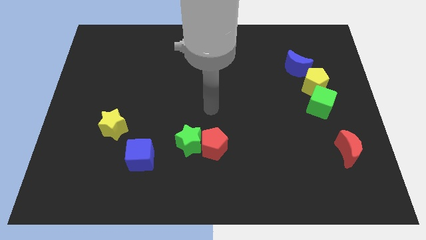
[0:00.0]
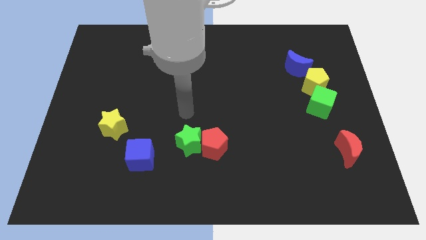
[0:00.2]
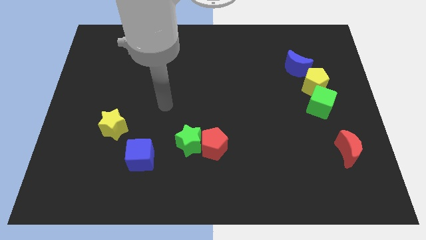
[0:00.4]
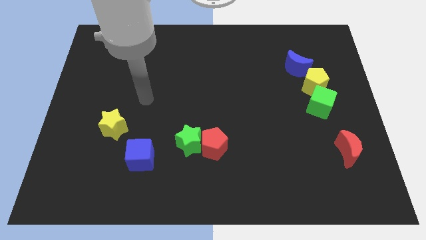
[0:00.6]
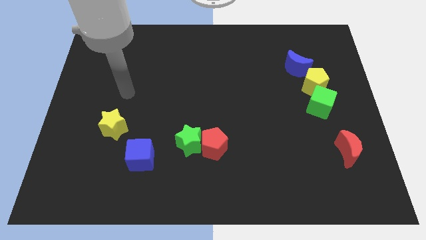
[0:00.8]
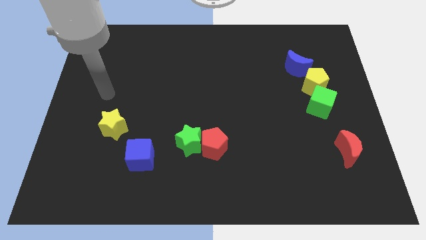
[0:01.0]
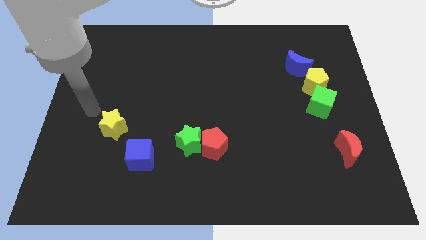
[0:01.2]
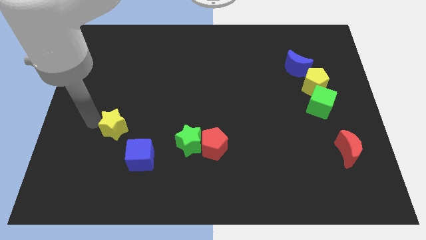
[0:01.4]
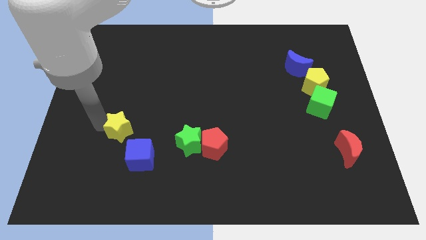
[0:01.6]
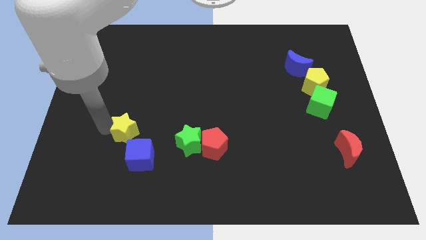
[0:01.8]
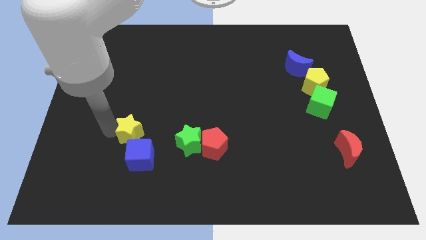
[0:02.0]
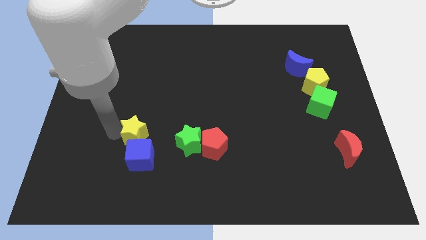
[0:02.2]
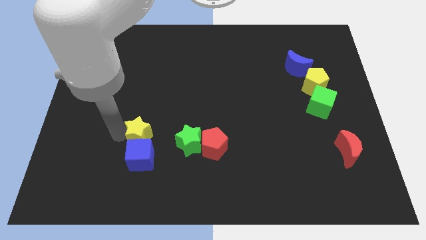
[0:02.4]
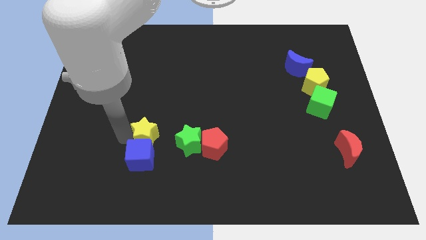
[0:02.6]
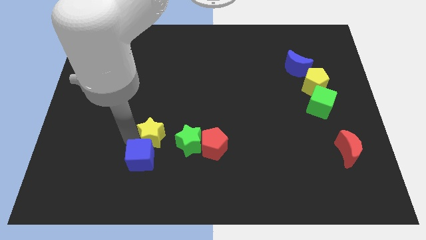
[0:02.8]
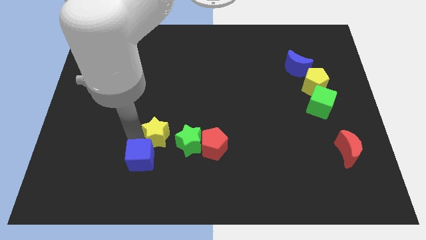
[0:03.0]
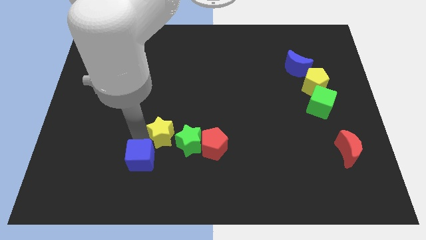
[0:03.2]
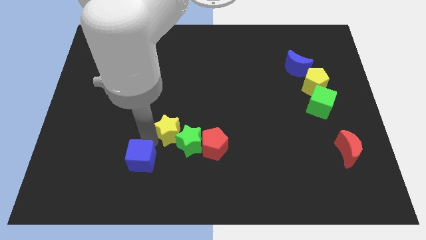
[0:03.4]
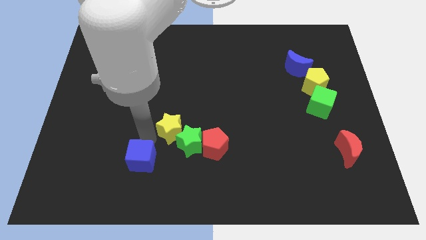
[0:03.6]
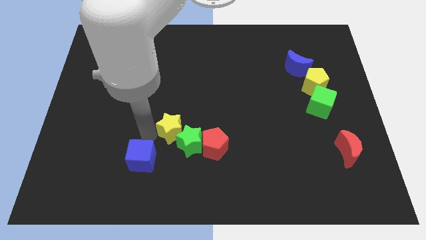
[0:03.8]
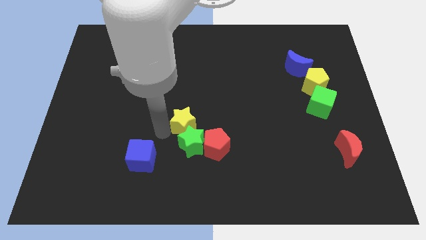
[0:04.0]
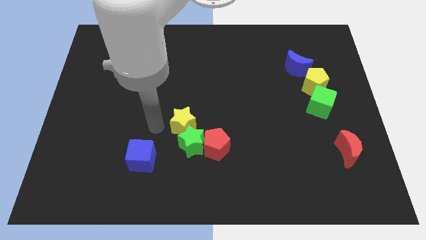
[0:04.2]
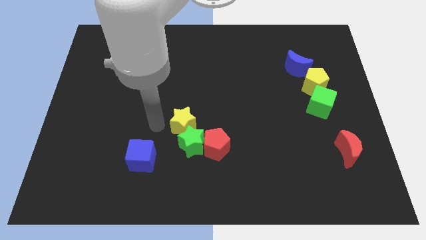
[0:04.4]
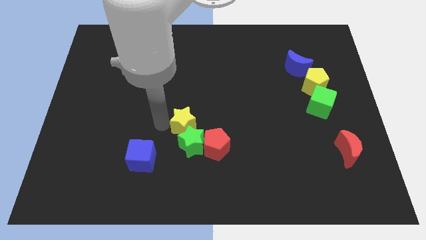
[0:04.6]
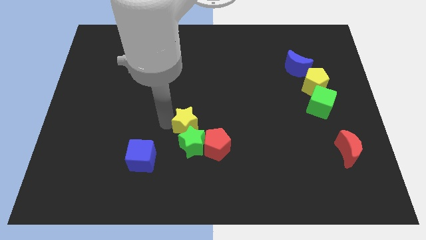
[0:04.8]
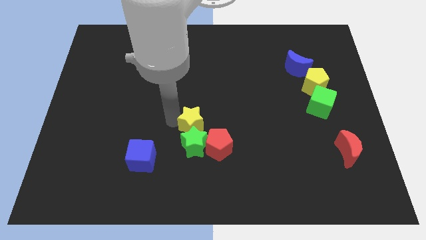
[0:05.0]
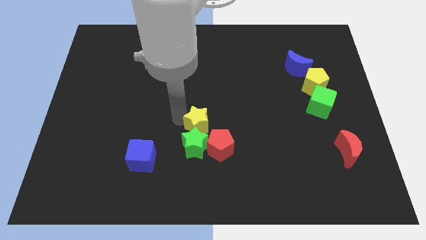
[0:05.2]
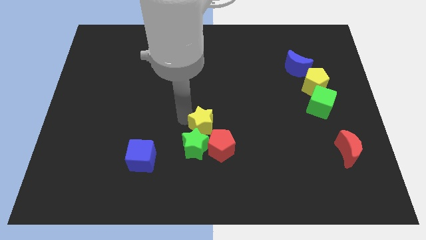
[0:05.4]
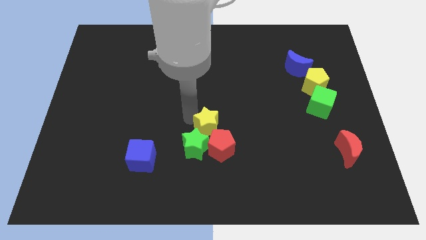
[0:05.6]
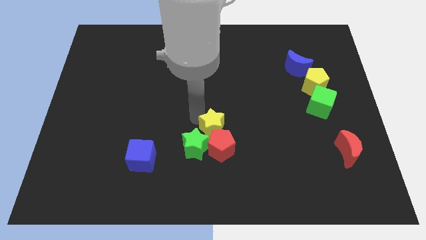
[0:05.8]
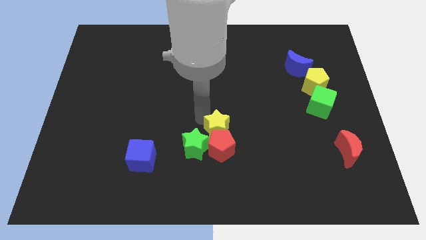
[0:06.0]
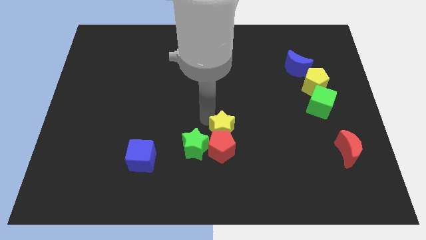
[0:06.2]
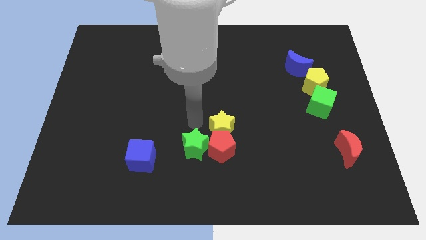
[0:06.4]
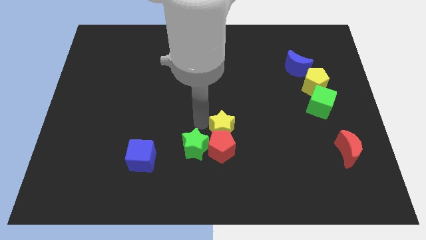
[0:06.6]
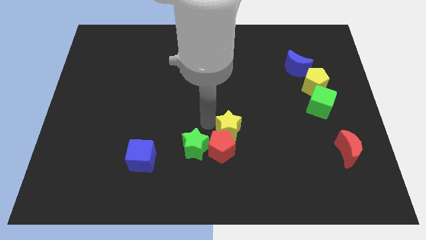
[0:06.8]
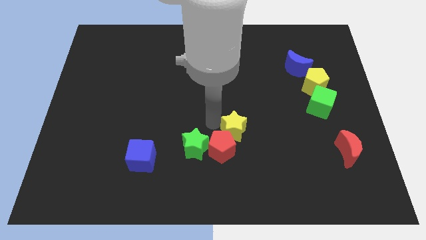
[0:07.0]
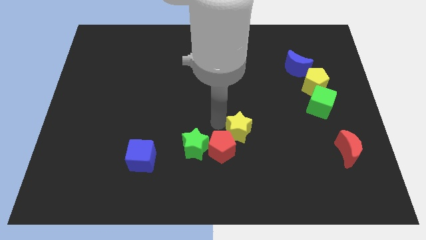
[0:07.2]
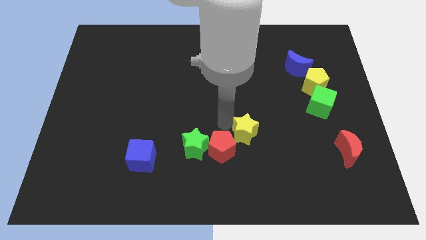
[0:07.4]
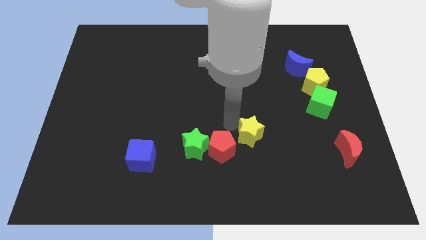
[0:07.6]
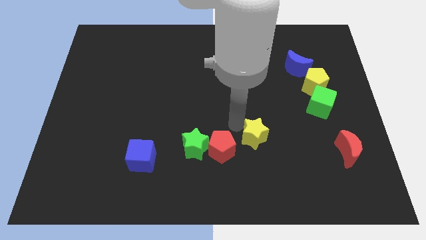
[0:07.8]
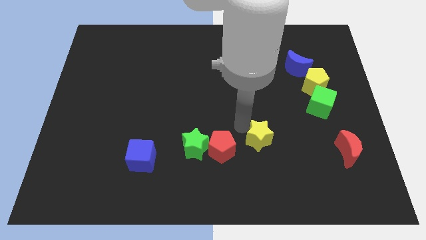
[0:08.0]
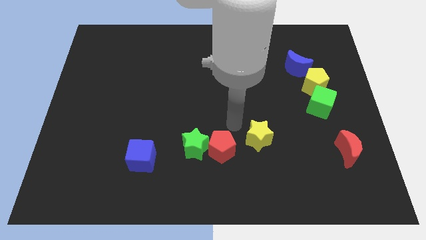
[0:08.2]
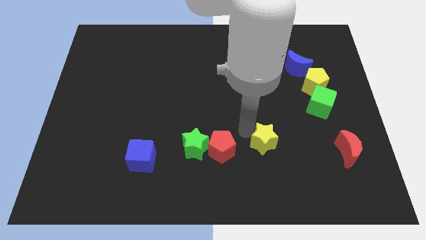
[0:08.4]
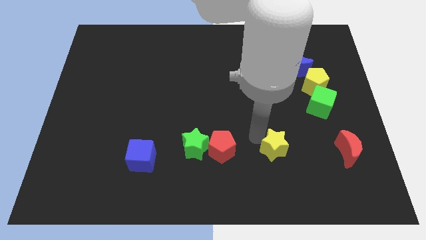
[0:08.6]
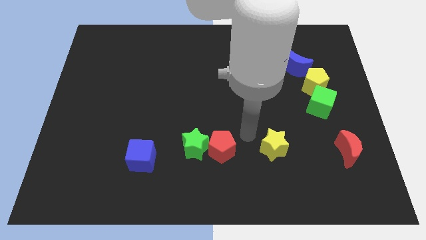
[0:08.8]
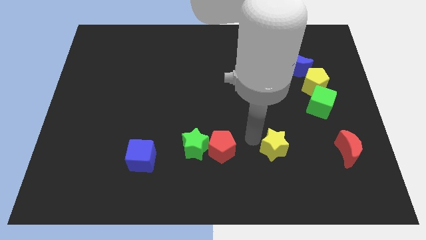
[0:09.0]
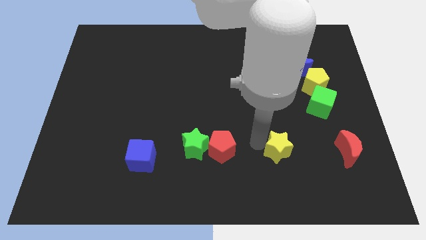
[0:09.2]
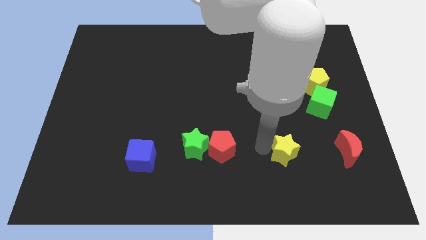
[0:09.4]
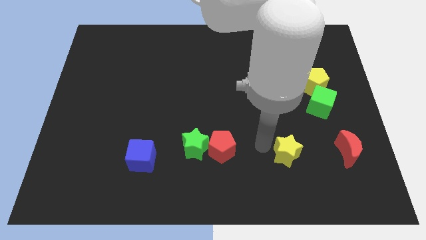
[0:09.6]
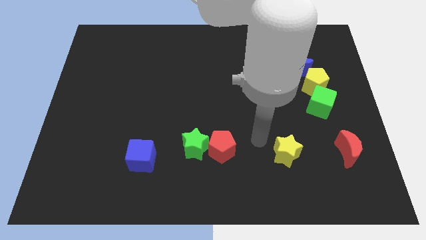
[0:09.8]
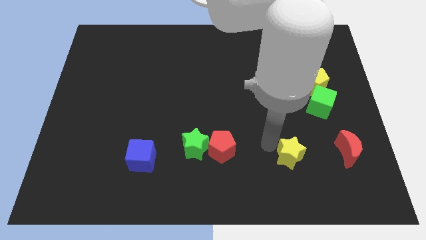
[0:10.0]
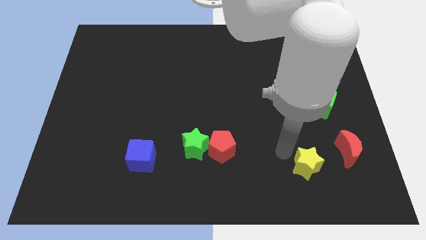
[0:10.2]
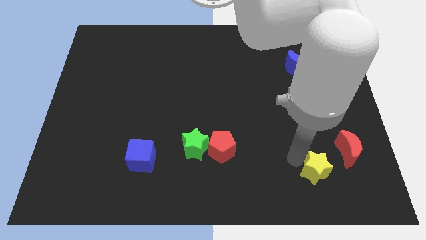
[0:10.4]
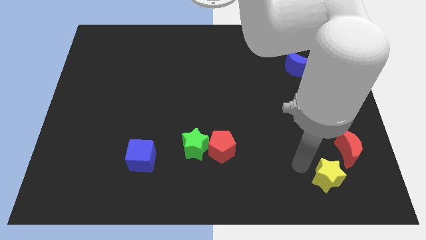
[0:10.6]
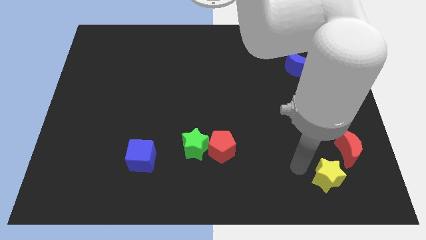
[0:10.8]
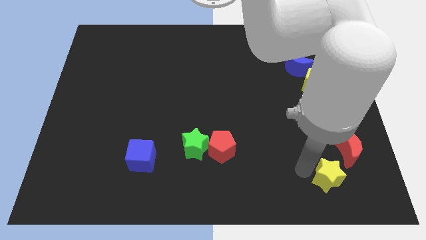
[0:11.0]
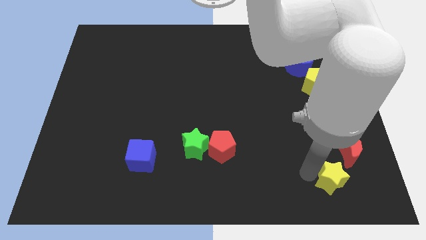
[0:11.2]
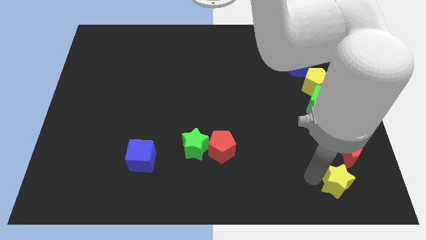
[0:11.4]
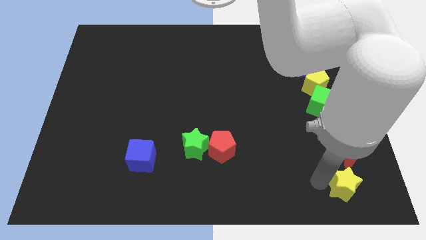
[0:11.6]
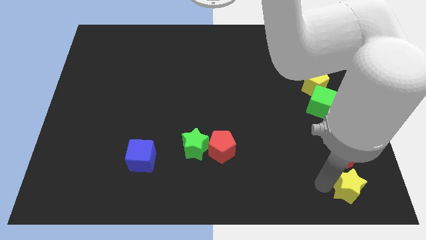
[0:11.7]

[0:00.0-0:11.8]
put the yellow star to the bottom right

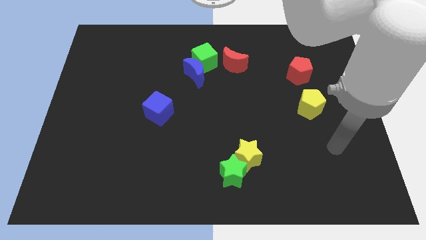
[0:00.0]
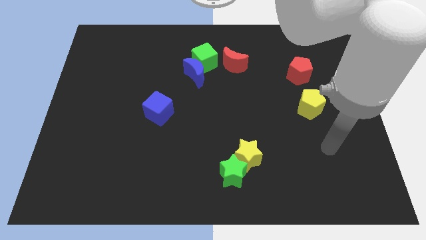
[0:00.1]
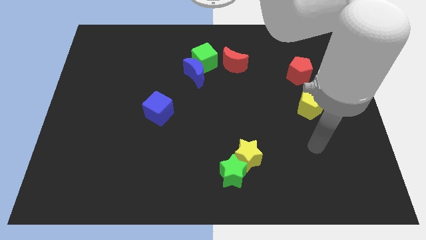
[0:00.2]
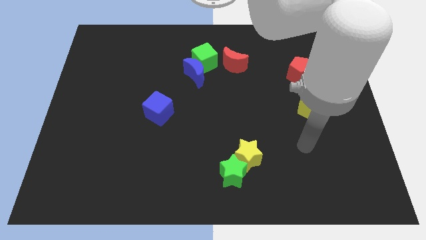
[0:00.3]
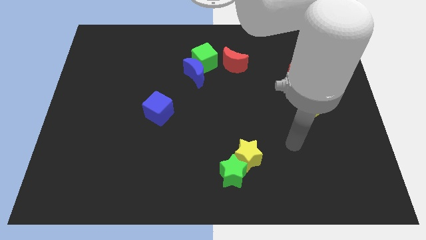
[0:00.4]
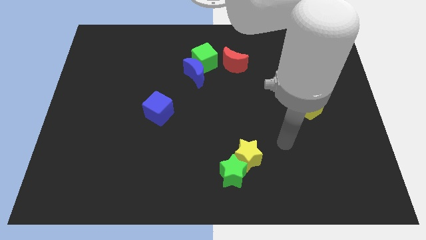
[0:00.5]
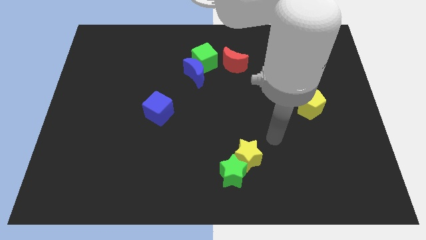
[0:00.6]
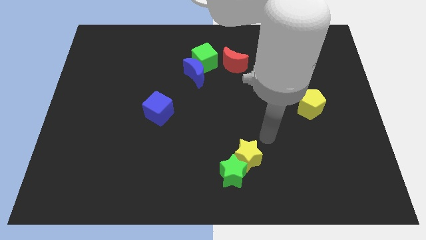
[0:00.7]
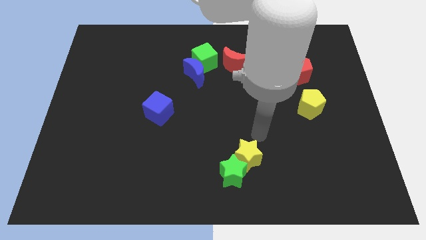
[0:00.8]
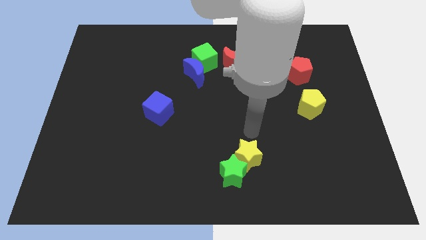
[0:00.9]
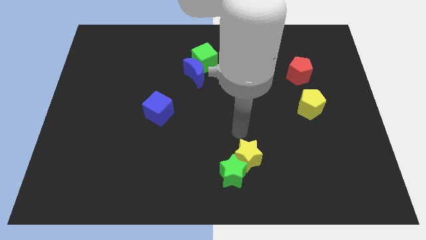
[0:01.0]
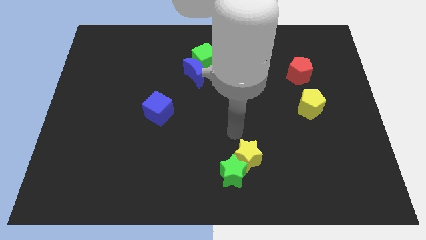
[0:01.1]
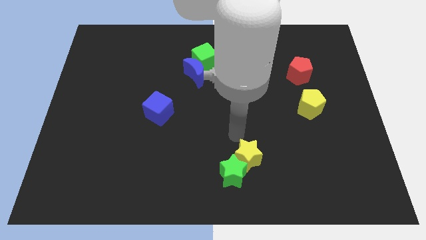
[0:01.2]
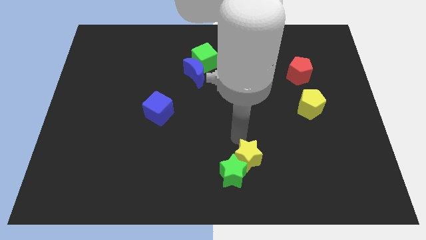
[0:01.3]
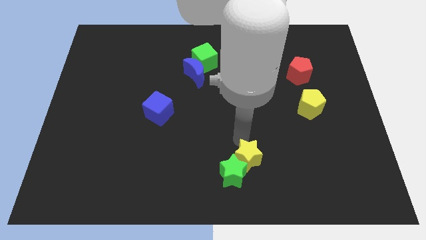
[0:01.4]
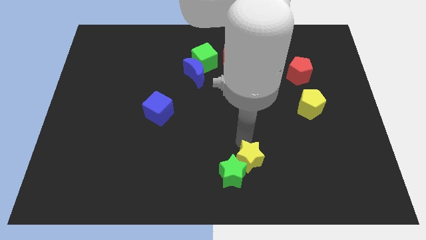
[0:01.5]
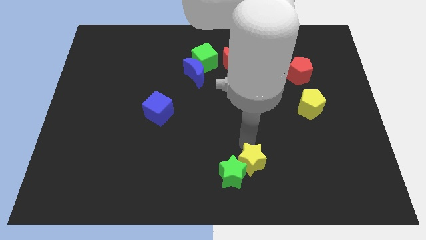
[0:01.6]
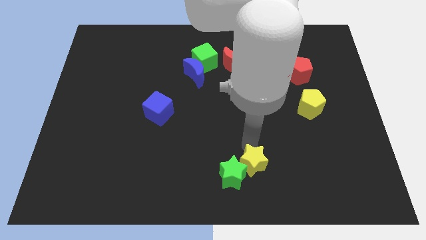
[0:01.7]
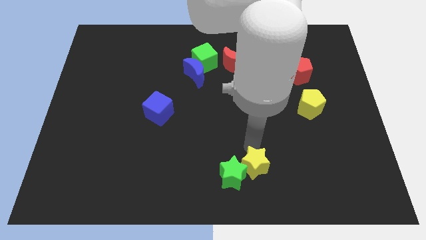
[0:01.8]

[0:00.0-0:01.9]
push the yellow star to the bottom side
